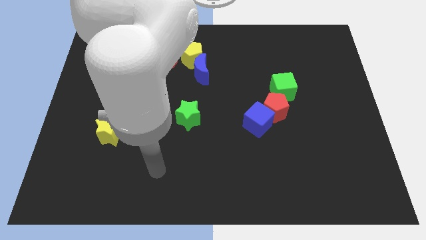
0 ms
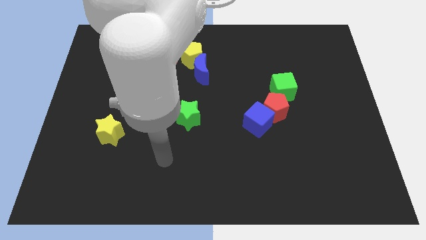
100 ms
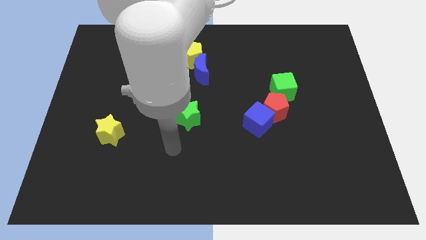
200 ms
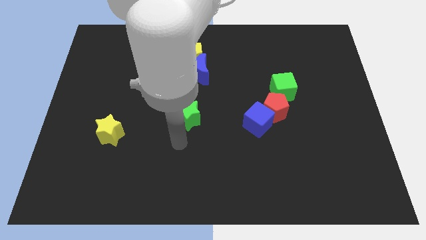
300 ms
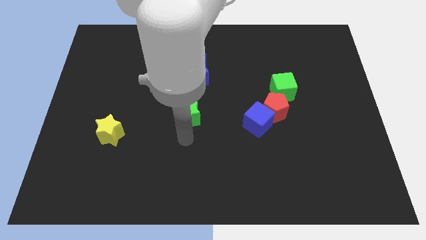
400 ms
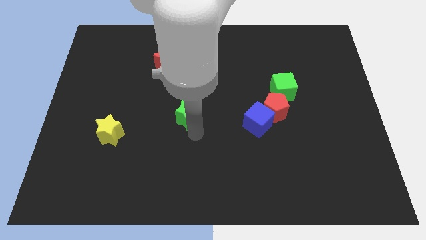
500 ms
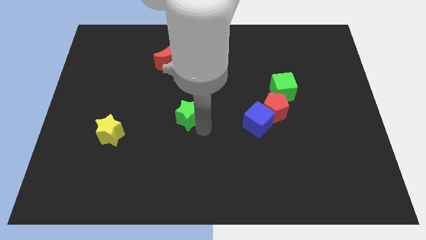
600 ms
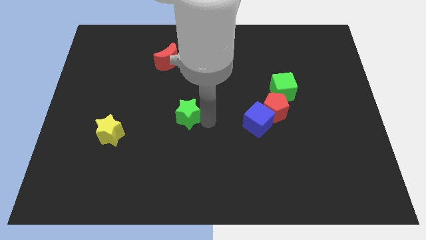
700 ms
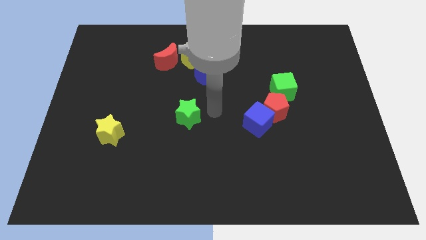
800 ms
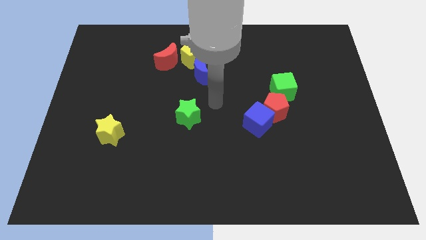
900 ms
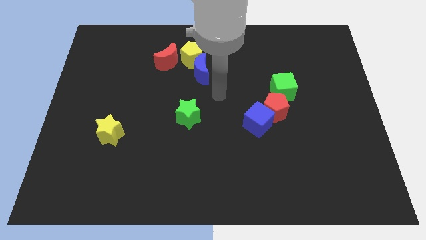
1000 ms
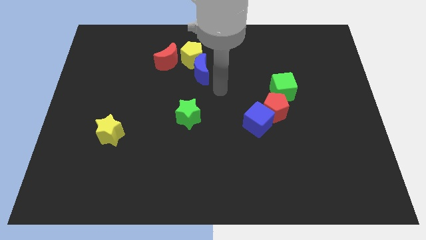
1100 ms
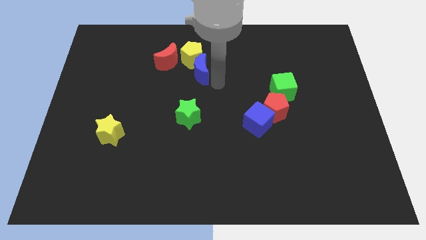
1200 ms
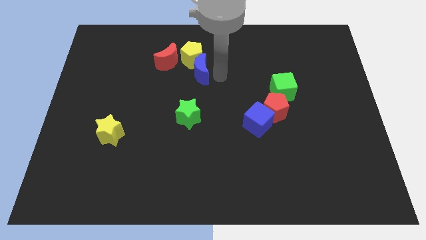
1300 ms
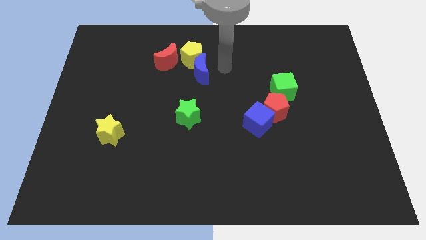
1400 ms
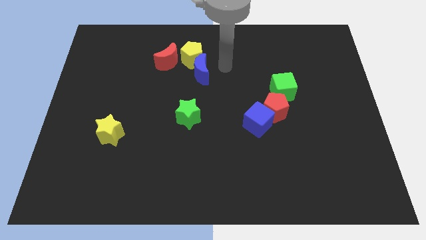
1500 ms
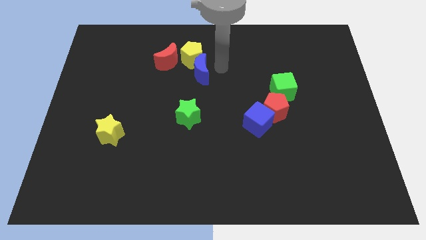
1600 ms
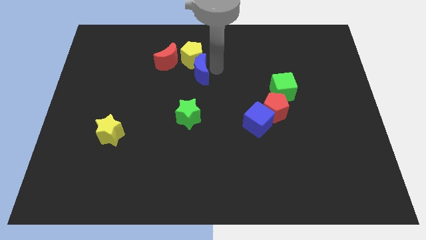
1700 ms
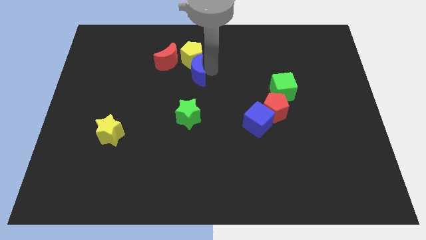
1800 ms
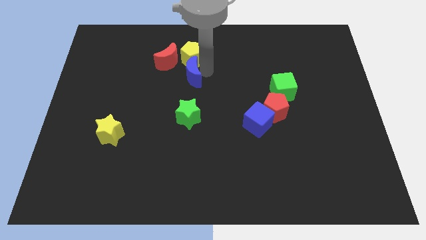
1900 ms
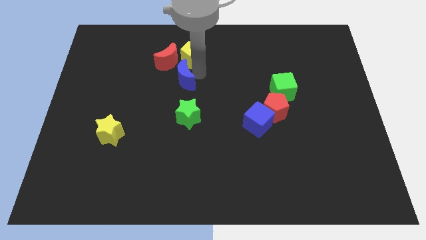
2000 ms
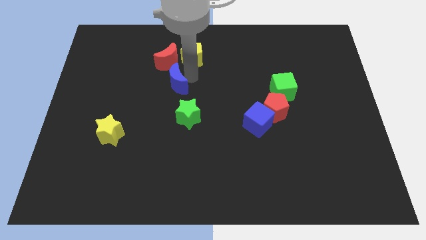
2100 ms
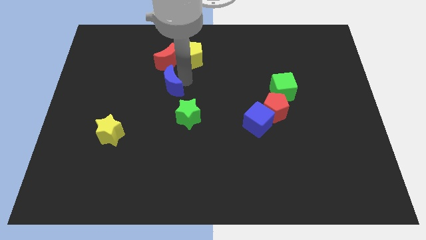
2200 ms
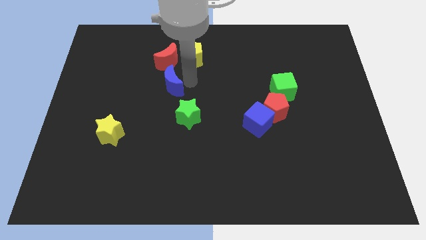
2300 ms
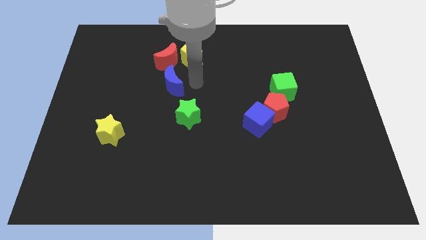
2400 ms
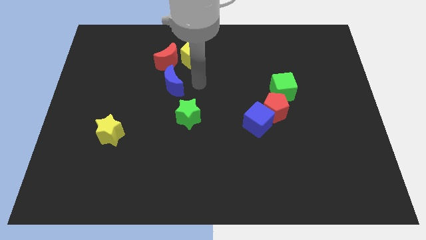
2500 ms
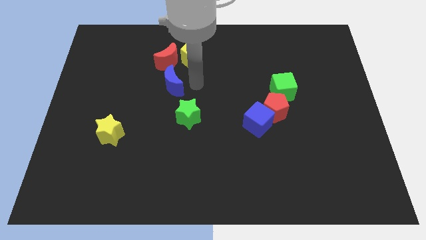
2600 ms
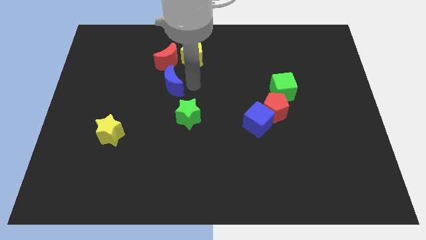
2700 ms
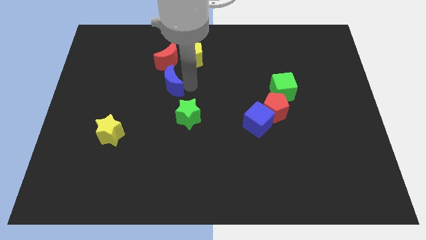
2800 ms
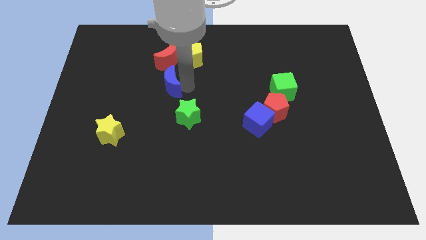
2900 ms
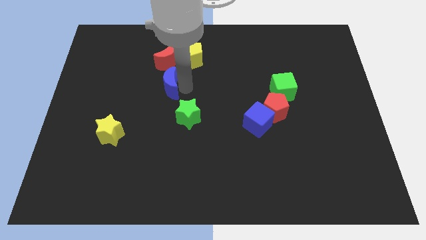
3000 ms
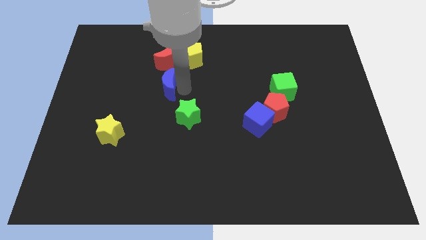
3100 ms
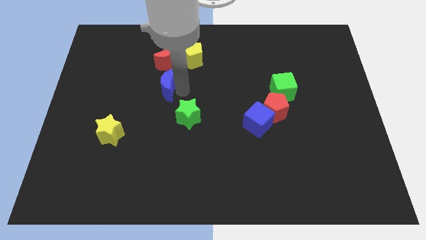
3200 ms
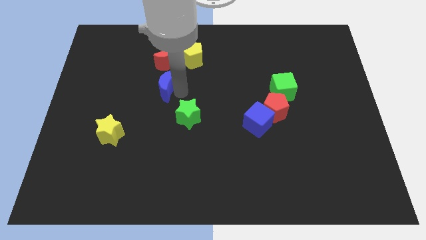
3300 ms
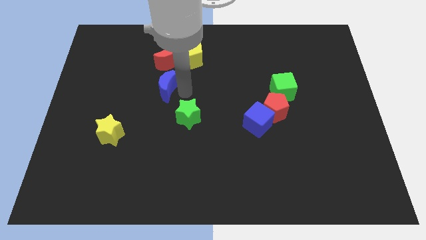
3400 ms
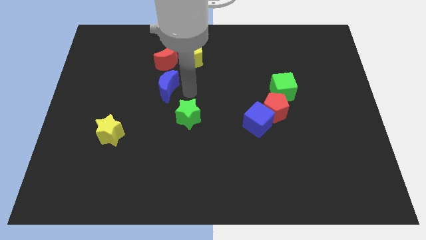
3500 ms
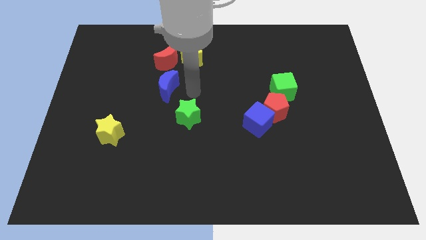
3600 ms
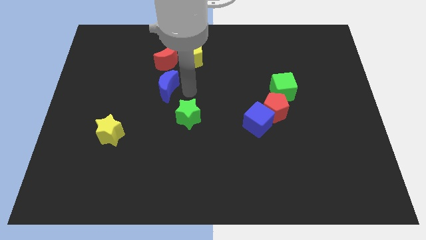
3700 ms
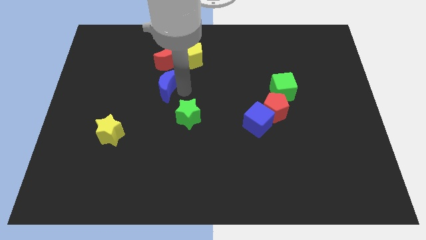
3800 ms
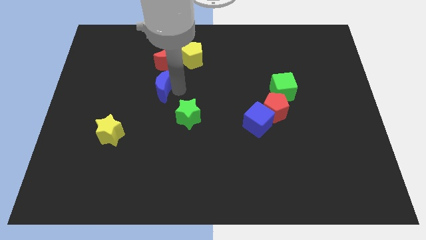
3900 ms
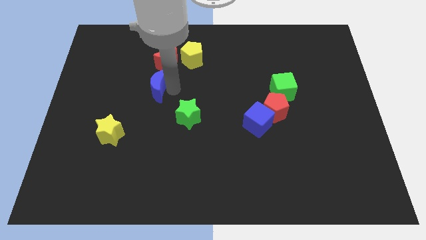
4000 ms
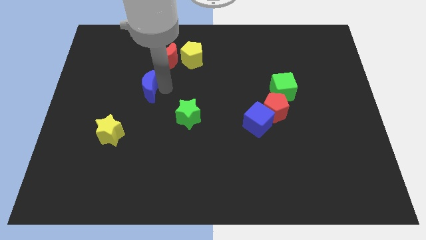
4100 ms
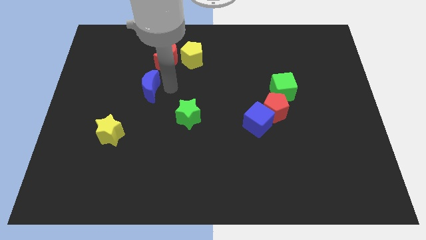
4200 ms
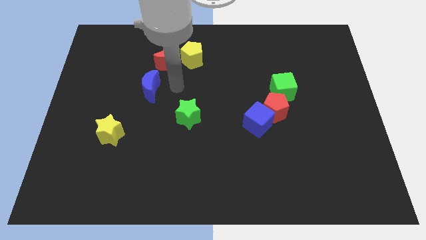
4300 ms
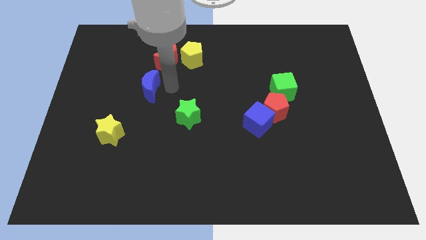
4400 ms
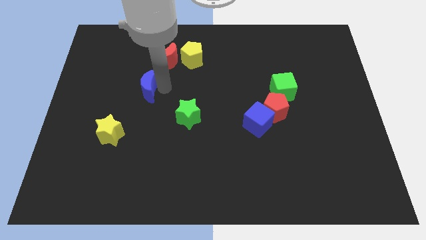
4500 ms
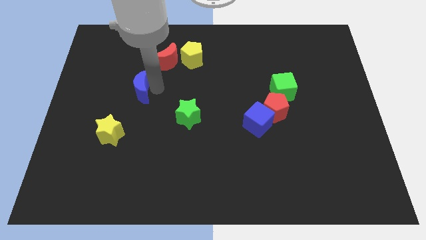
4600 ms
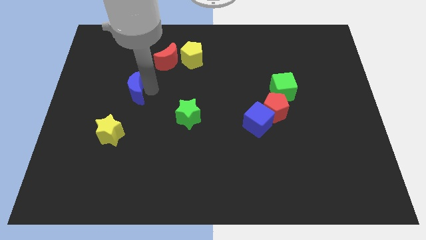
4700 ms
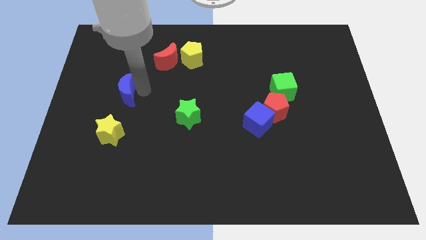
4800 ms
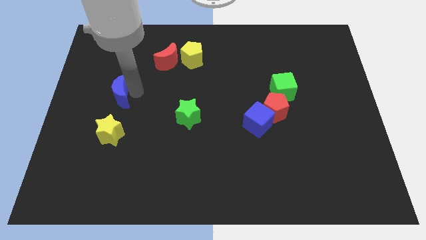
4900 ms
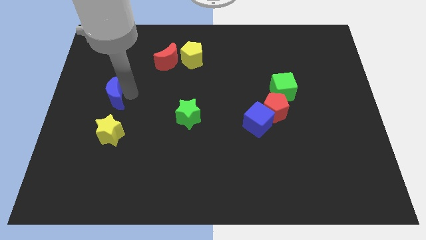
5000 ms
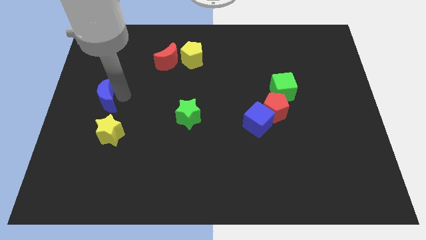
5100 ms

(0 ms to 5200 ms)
slide the blue moon to the left side
